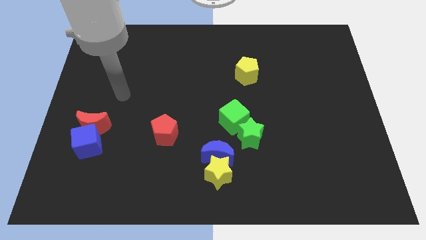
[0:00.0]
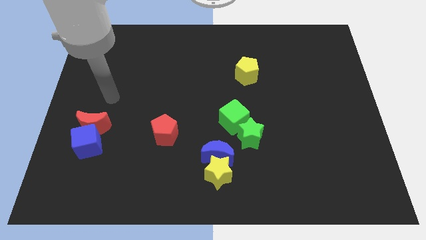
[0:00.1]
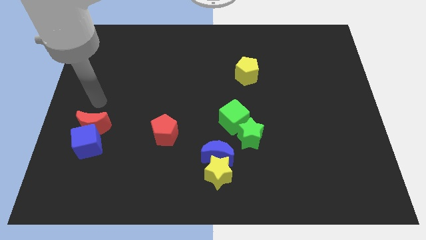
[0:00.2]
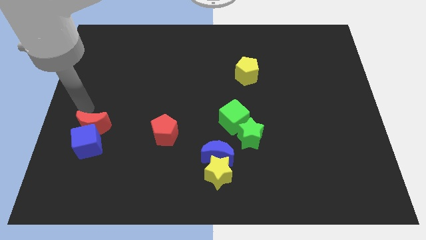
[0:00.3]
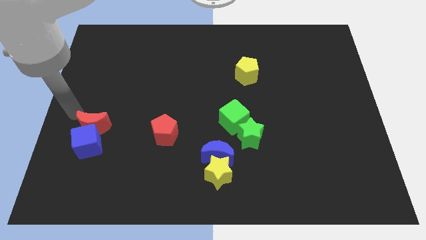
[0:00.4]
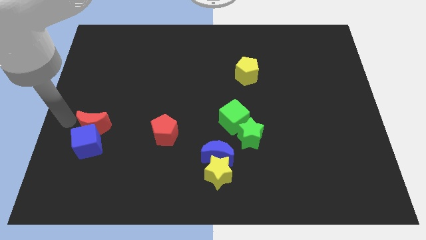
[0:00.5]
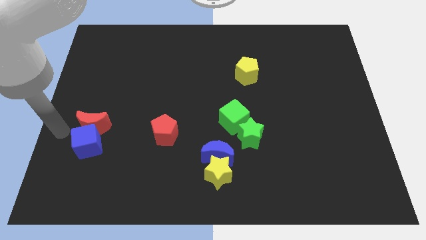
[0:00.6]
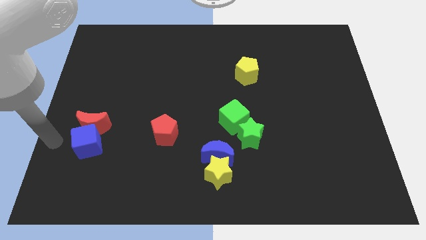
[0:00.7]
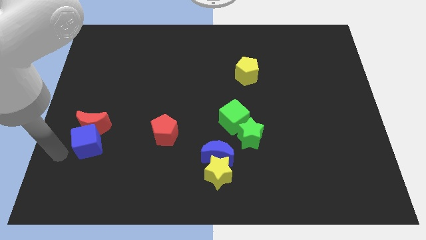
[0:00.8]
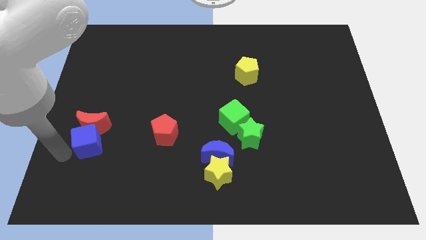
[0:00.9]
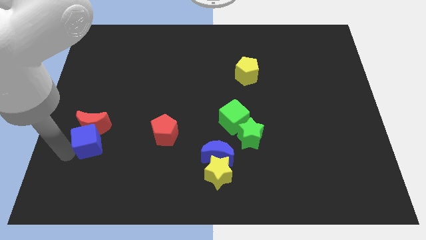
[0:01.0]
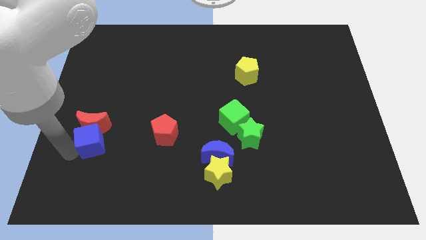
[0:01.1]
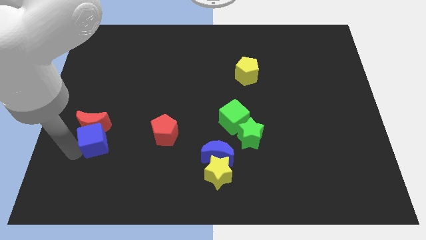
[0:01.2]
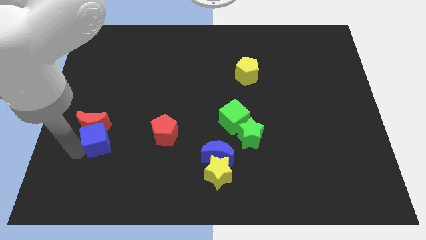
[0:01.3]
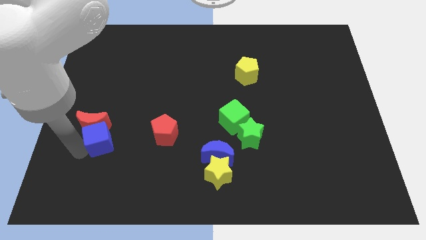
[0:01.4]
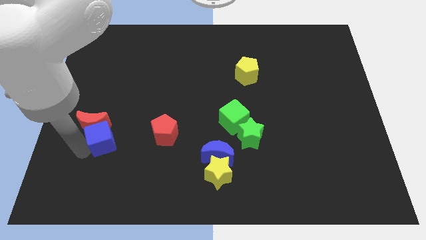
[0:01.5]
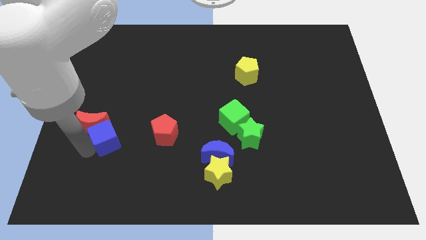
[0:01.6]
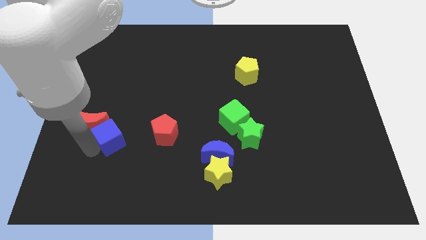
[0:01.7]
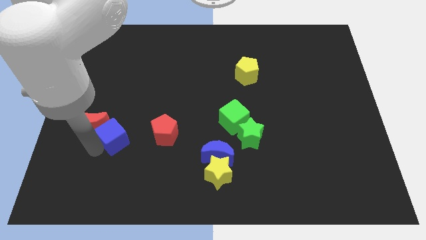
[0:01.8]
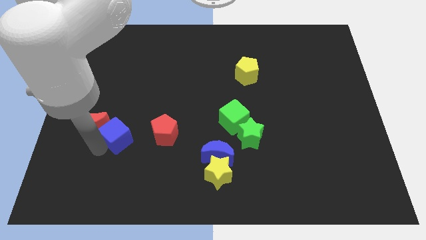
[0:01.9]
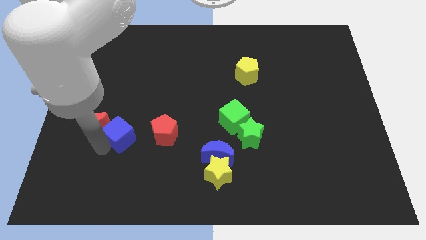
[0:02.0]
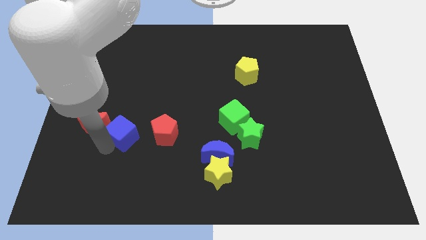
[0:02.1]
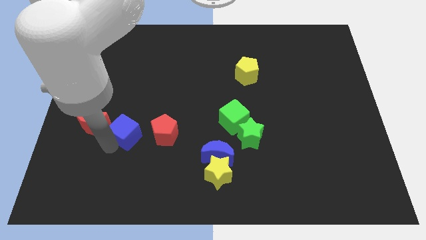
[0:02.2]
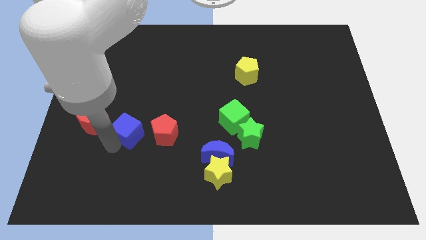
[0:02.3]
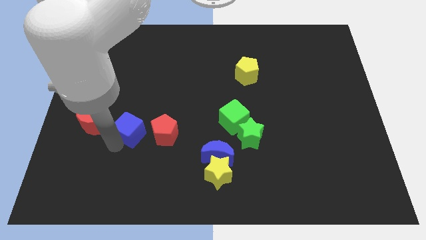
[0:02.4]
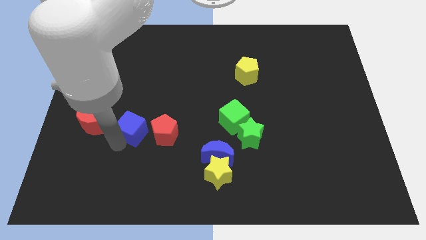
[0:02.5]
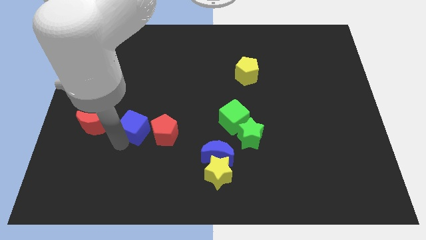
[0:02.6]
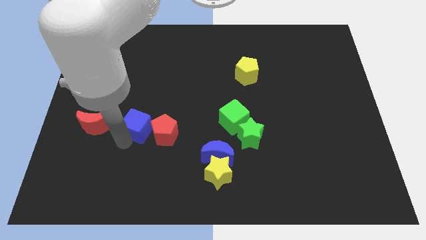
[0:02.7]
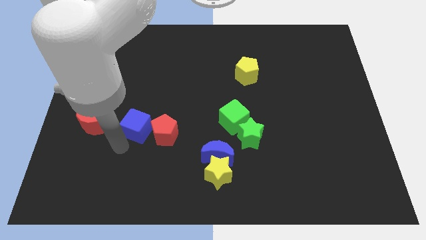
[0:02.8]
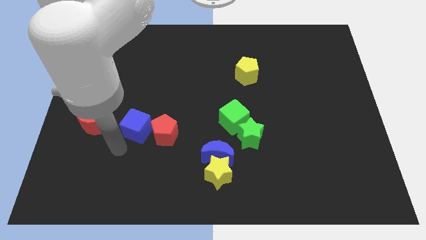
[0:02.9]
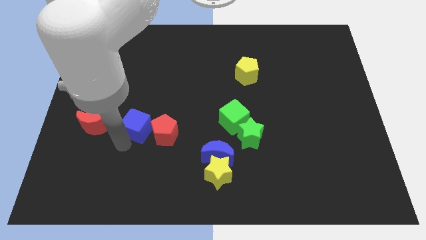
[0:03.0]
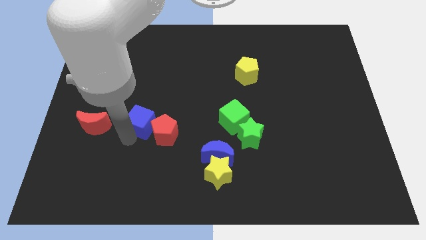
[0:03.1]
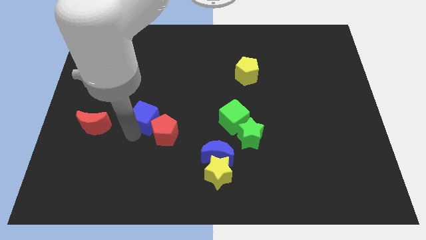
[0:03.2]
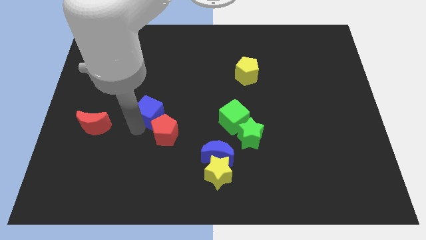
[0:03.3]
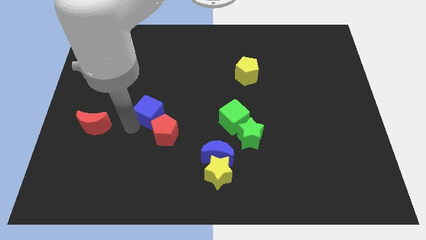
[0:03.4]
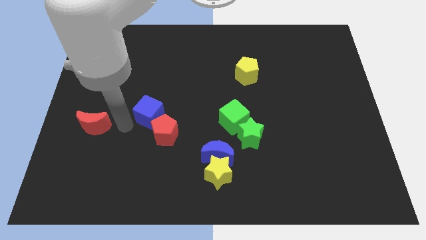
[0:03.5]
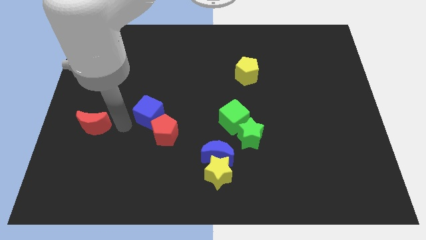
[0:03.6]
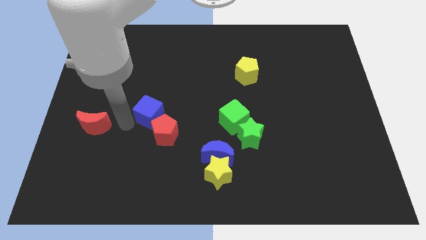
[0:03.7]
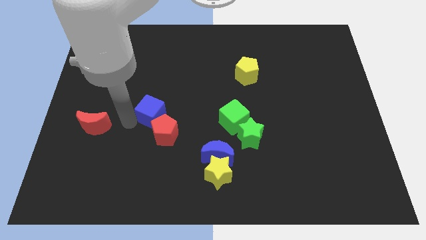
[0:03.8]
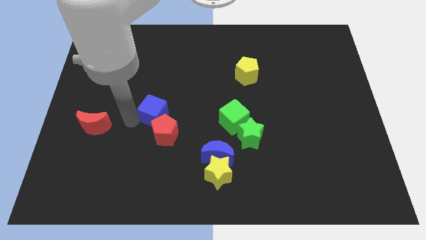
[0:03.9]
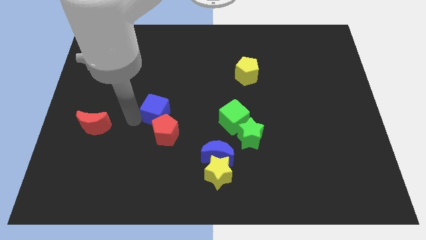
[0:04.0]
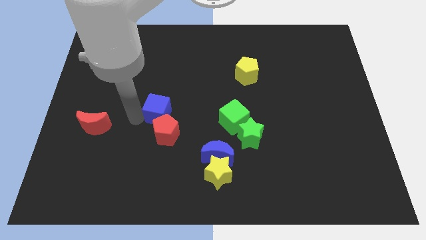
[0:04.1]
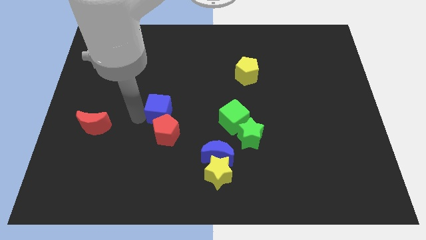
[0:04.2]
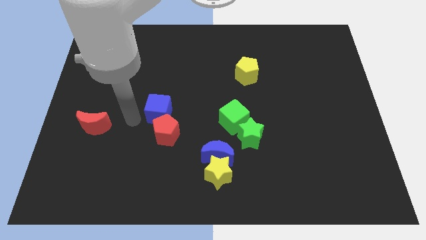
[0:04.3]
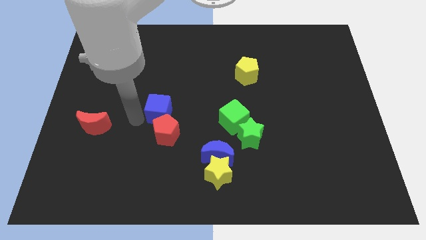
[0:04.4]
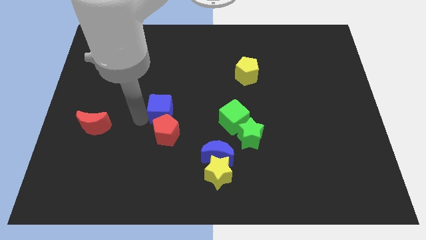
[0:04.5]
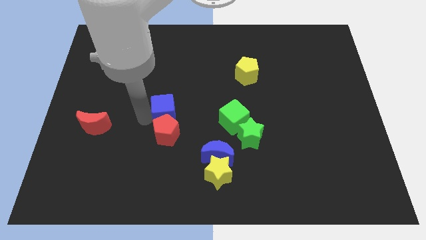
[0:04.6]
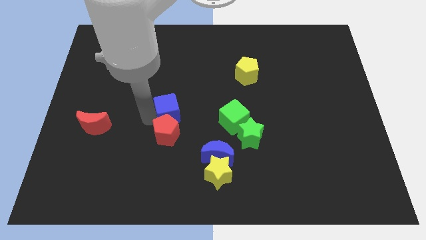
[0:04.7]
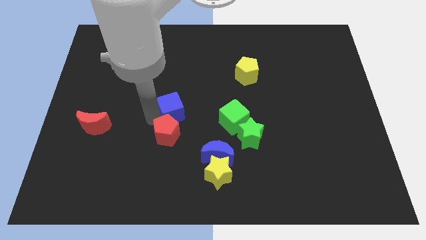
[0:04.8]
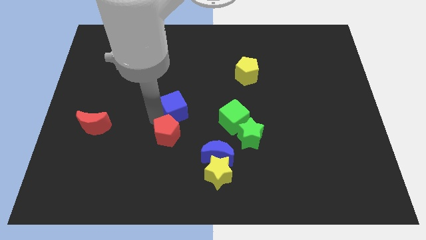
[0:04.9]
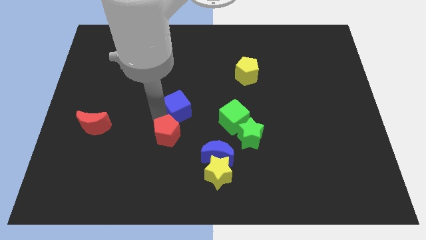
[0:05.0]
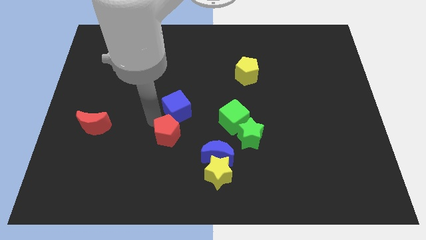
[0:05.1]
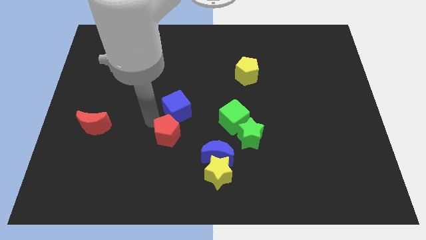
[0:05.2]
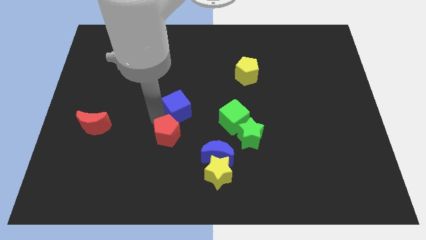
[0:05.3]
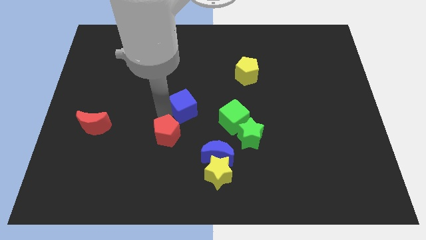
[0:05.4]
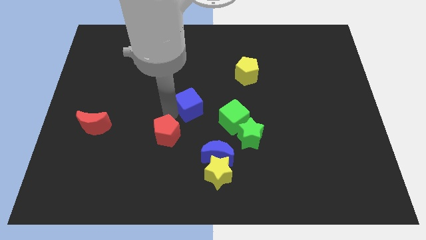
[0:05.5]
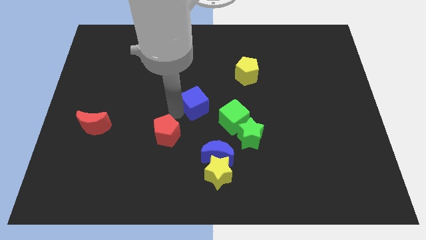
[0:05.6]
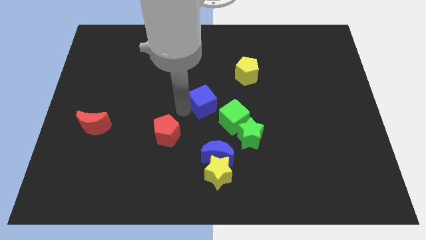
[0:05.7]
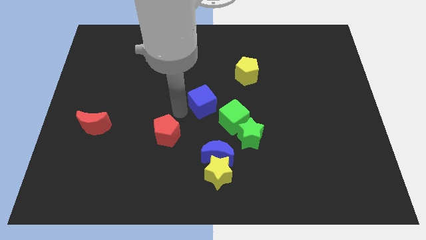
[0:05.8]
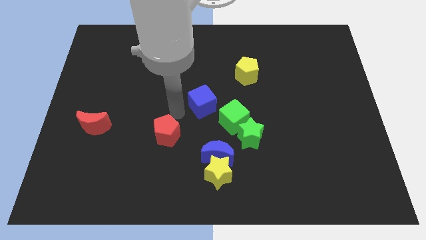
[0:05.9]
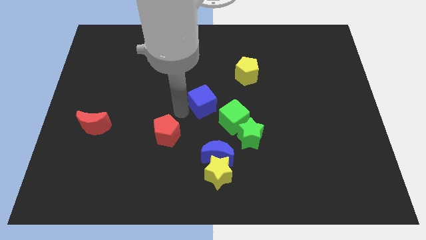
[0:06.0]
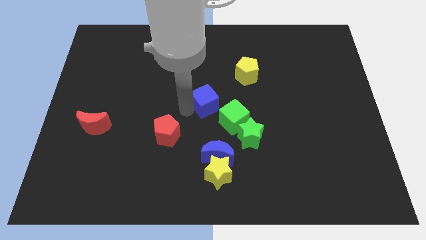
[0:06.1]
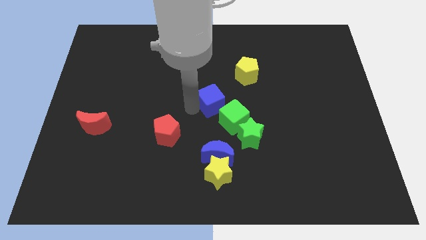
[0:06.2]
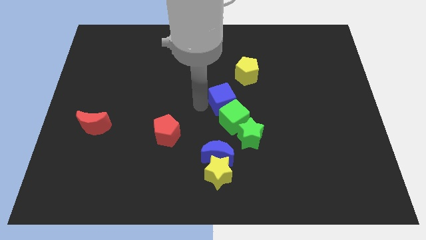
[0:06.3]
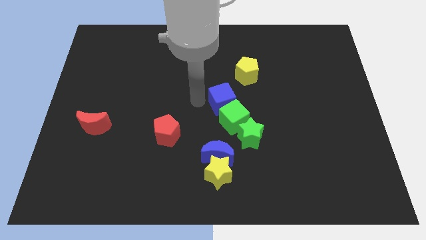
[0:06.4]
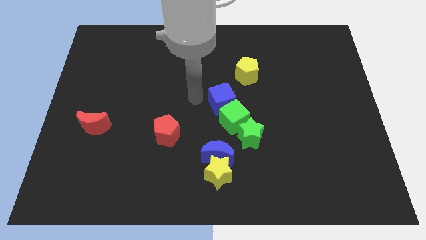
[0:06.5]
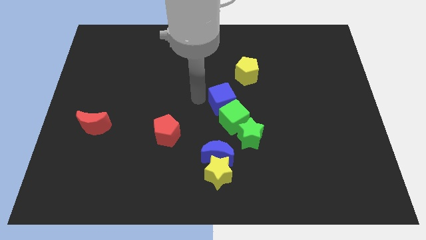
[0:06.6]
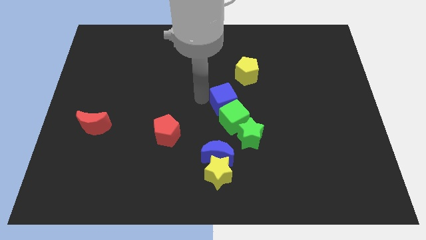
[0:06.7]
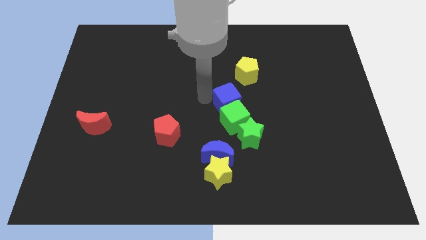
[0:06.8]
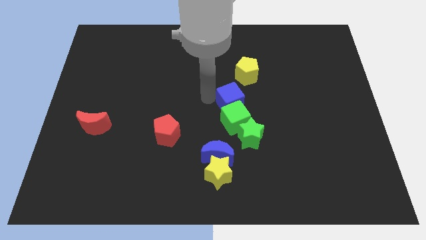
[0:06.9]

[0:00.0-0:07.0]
push the blue cube to the bottom side of the yellow pentagon

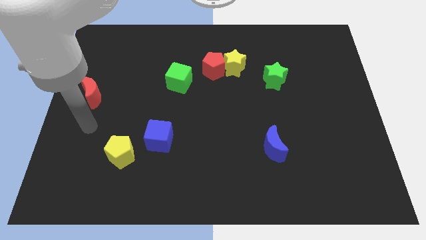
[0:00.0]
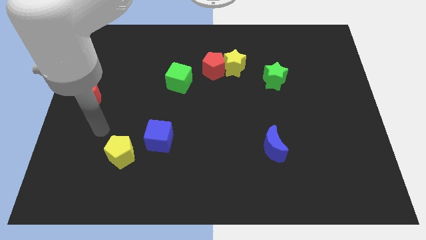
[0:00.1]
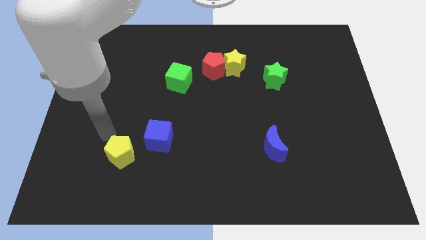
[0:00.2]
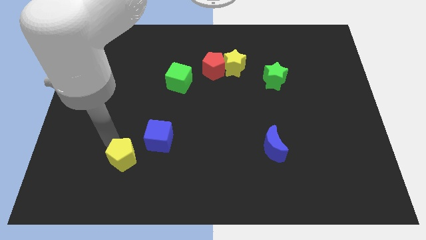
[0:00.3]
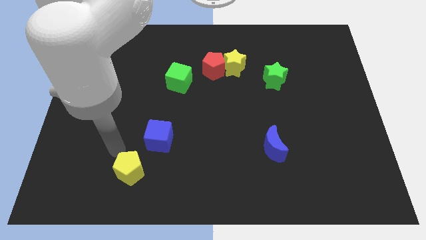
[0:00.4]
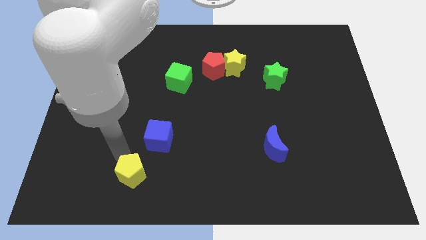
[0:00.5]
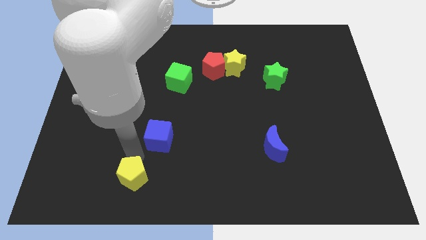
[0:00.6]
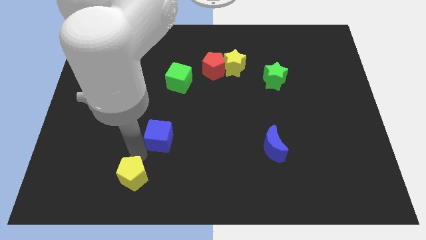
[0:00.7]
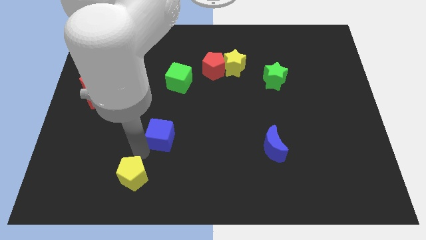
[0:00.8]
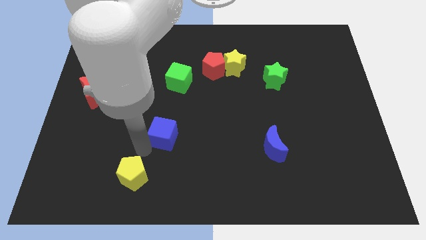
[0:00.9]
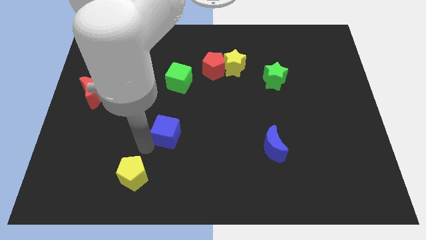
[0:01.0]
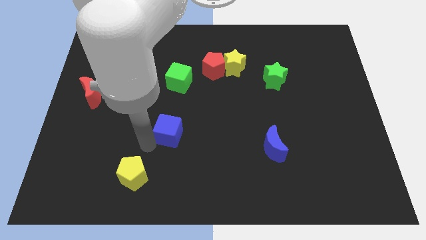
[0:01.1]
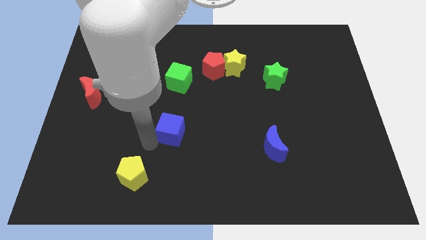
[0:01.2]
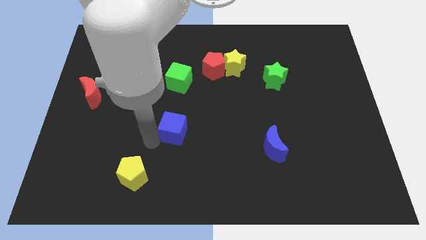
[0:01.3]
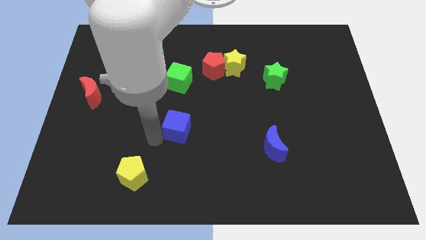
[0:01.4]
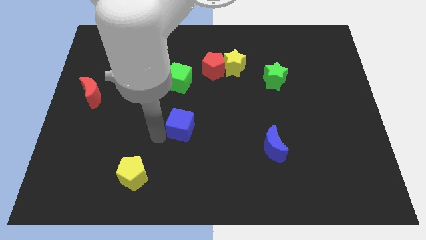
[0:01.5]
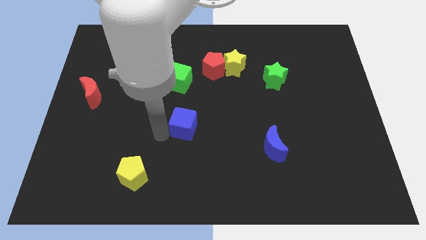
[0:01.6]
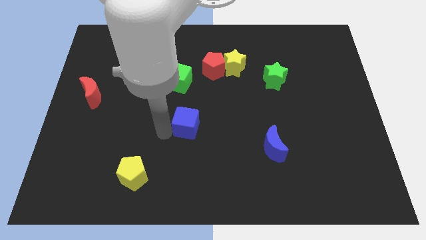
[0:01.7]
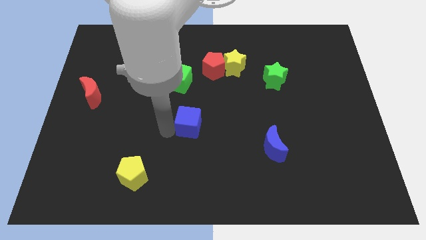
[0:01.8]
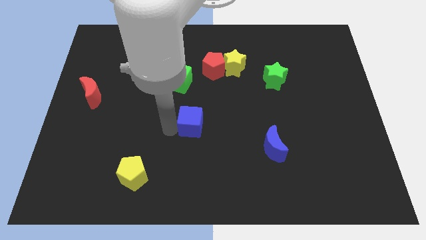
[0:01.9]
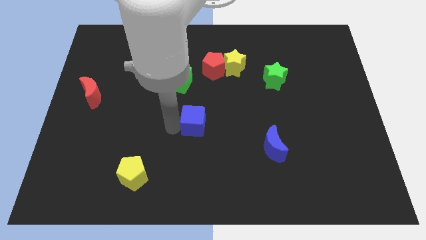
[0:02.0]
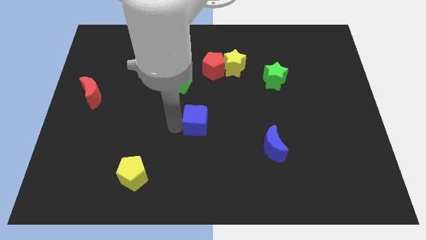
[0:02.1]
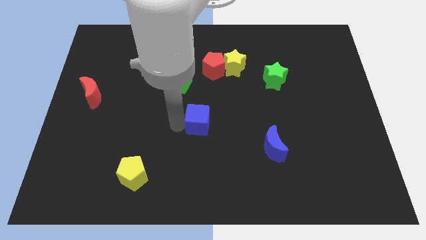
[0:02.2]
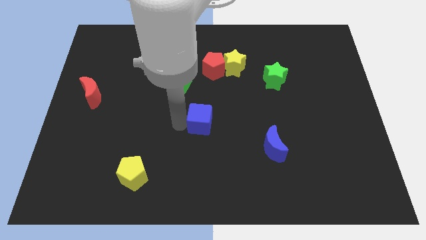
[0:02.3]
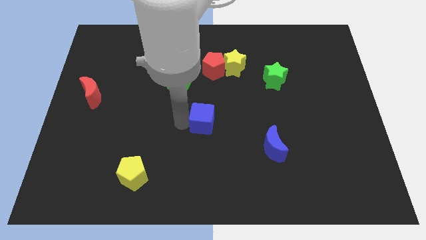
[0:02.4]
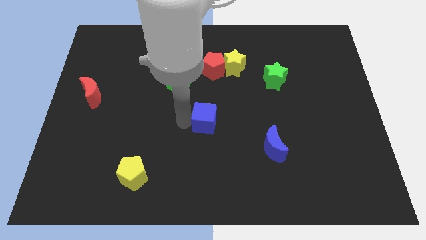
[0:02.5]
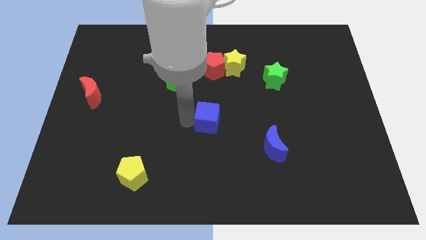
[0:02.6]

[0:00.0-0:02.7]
push the blue cube to the bottom side of the red pentagon
